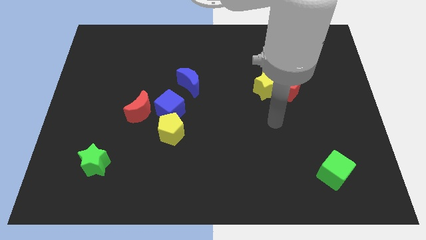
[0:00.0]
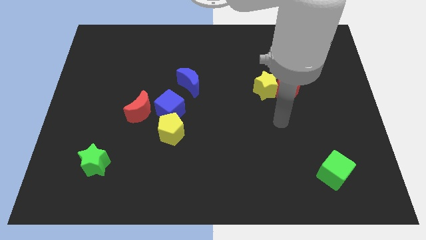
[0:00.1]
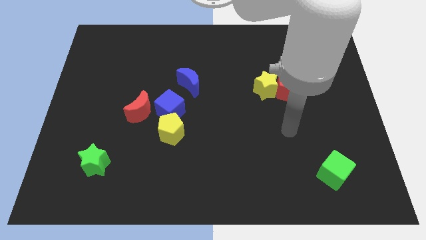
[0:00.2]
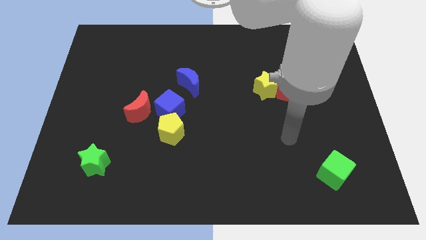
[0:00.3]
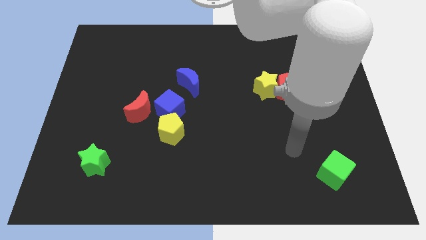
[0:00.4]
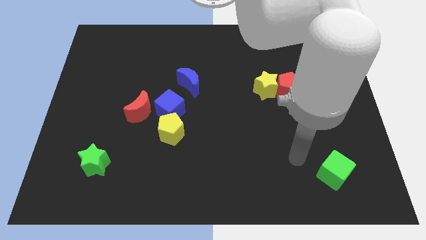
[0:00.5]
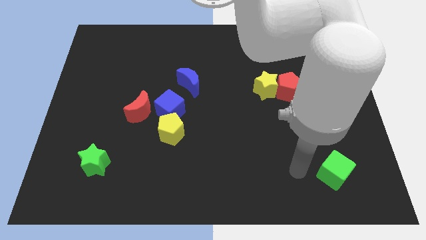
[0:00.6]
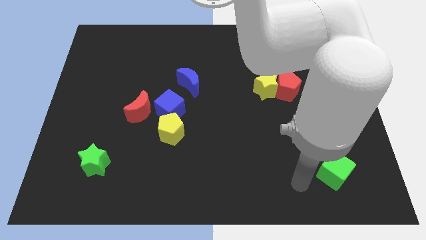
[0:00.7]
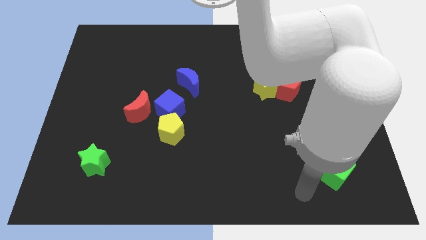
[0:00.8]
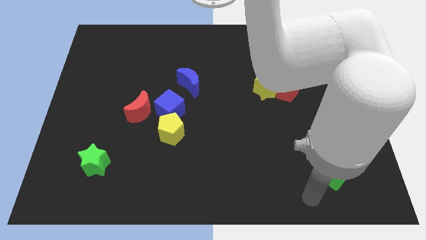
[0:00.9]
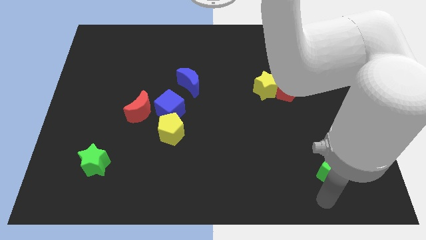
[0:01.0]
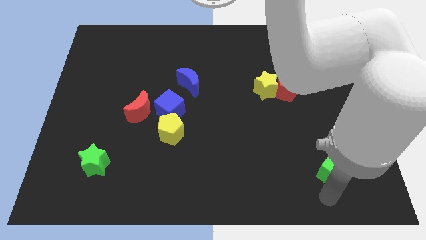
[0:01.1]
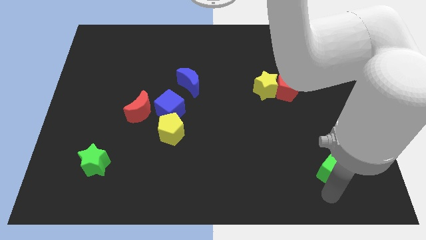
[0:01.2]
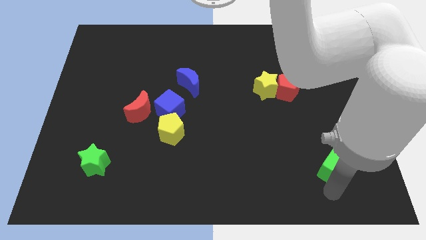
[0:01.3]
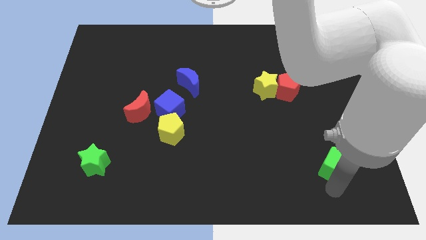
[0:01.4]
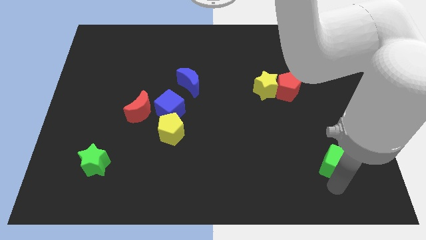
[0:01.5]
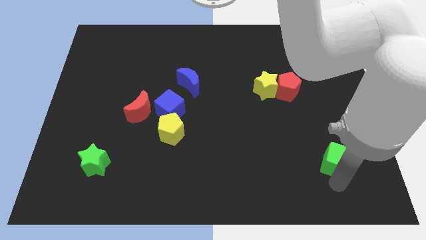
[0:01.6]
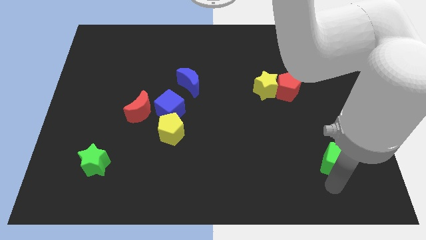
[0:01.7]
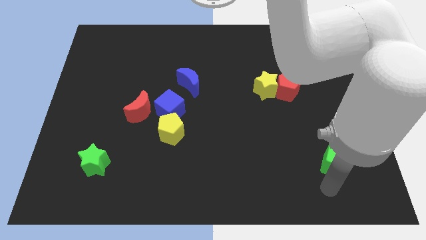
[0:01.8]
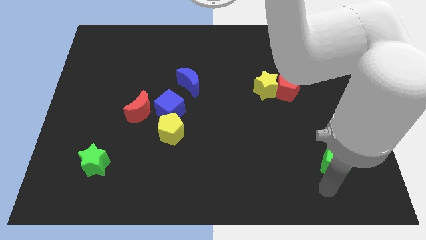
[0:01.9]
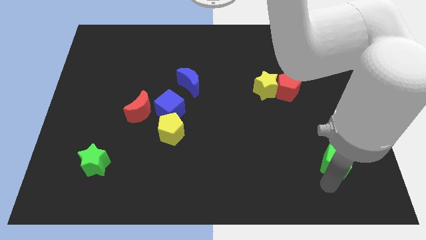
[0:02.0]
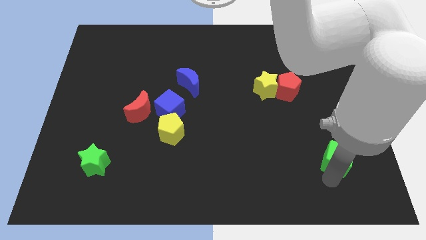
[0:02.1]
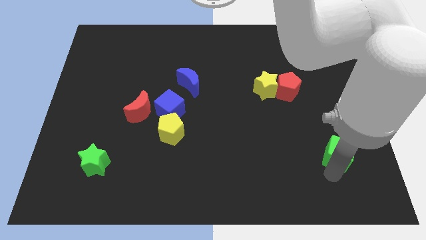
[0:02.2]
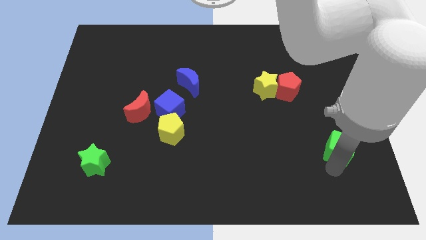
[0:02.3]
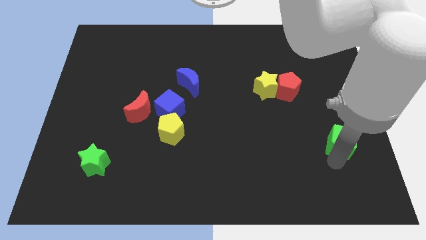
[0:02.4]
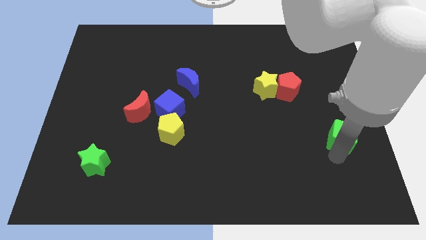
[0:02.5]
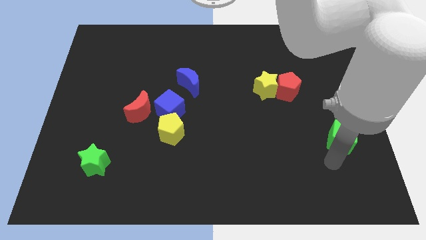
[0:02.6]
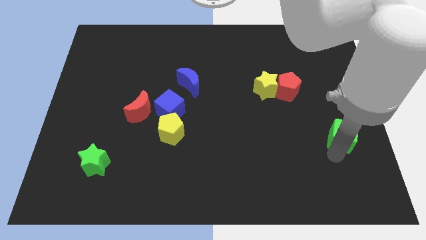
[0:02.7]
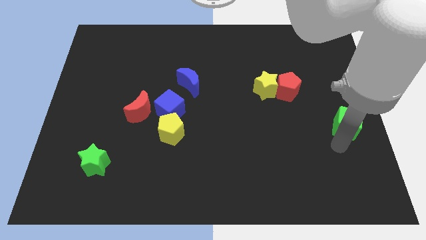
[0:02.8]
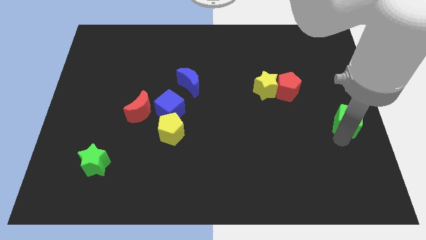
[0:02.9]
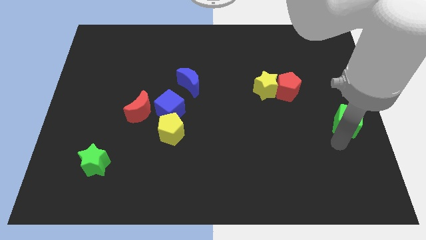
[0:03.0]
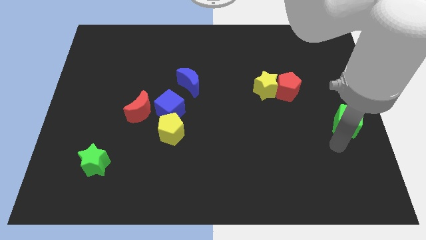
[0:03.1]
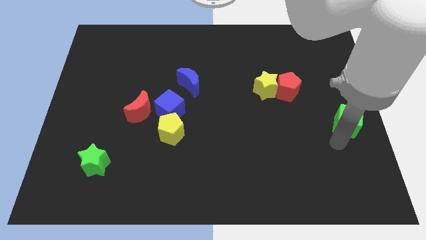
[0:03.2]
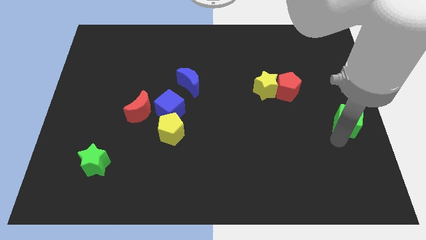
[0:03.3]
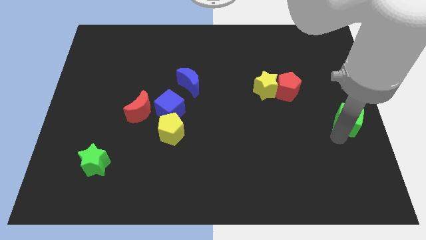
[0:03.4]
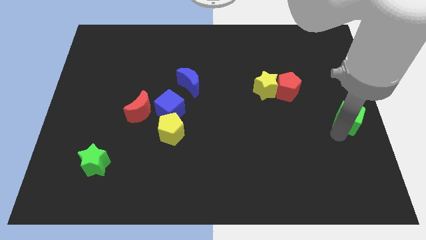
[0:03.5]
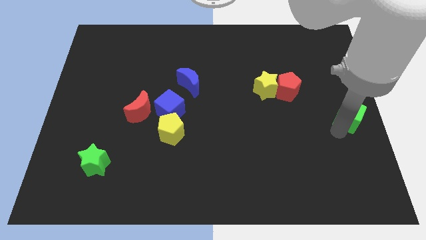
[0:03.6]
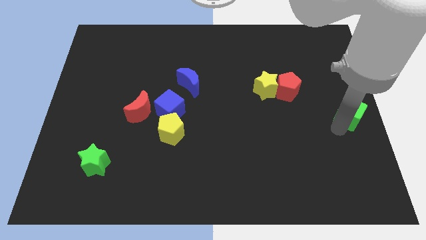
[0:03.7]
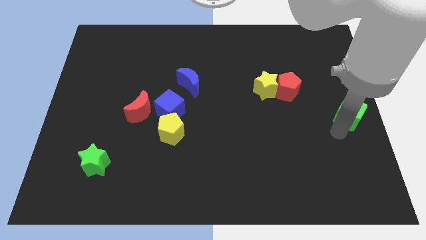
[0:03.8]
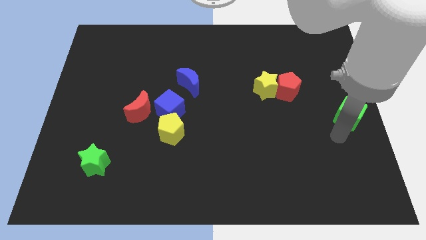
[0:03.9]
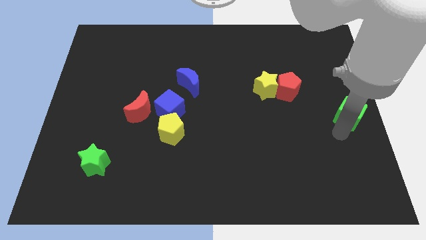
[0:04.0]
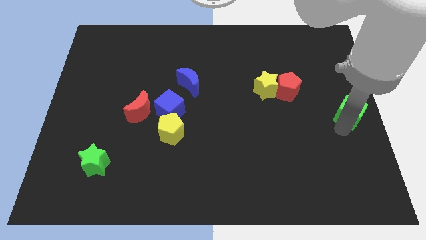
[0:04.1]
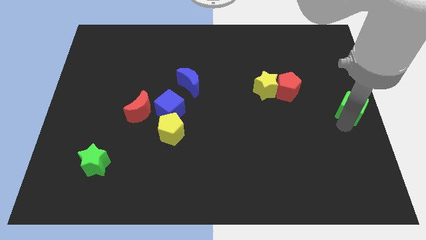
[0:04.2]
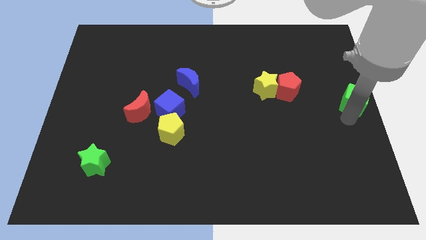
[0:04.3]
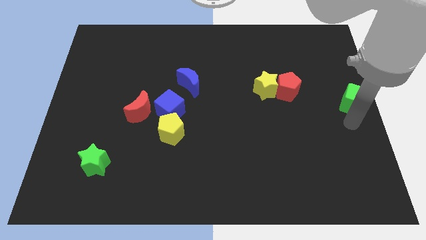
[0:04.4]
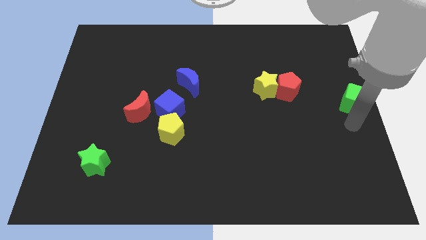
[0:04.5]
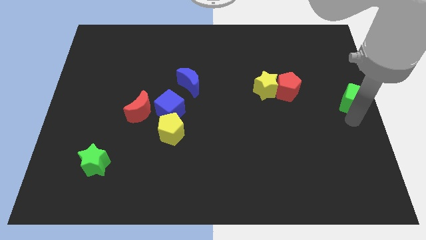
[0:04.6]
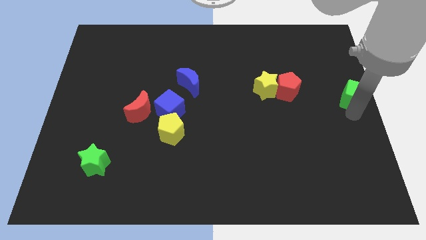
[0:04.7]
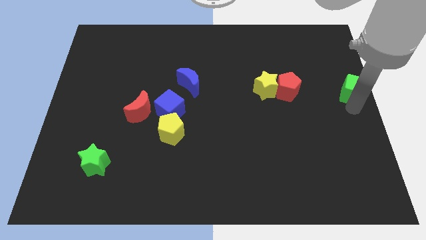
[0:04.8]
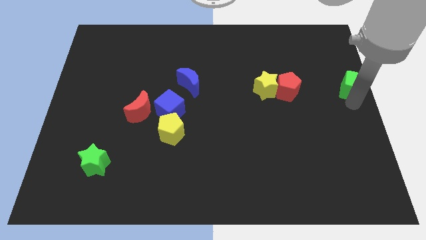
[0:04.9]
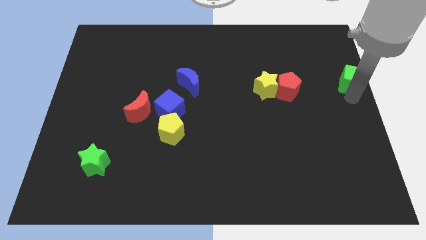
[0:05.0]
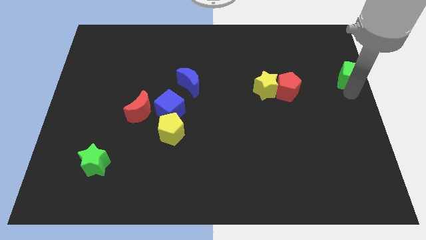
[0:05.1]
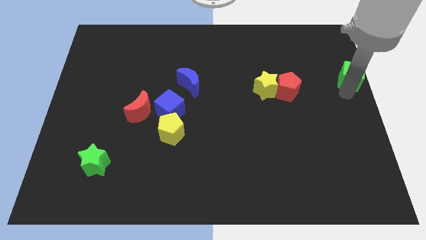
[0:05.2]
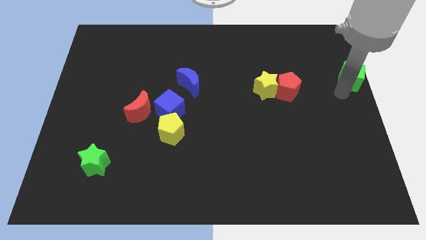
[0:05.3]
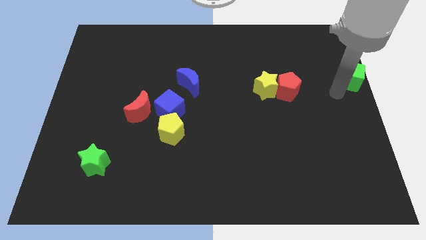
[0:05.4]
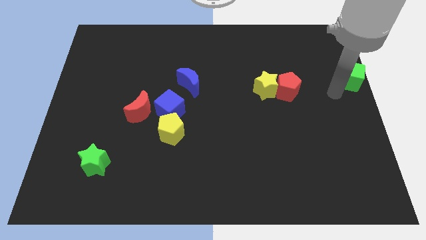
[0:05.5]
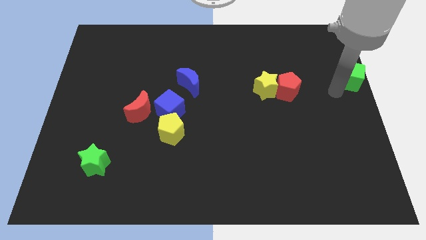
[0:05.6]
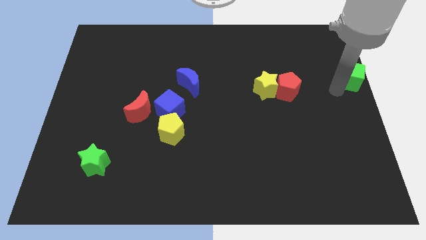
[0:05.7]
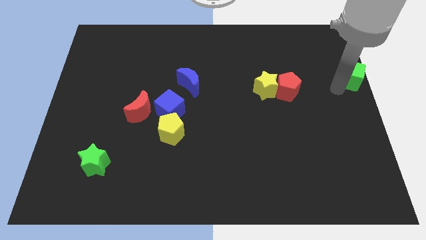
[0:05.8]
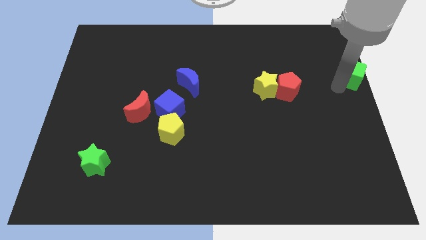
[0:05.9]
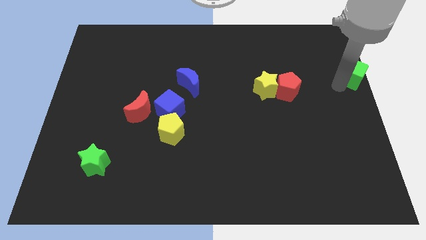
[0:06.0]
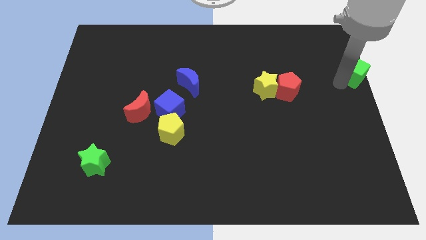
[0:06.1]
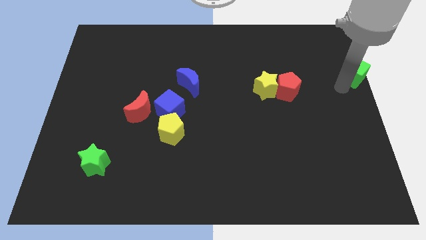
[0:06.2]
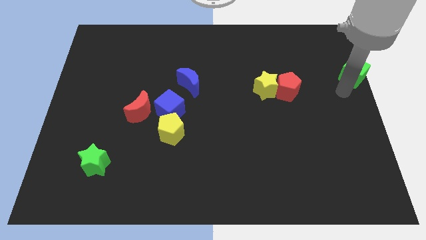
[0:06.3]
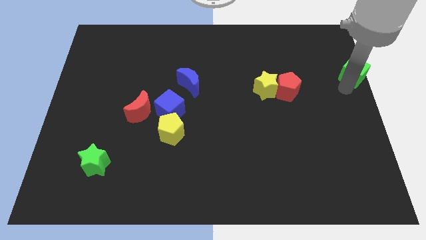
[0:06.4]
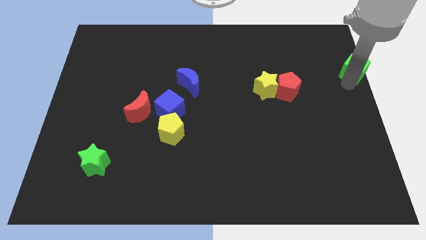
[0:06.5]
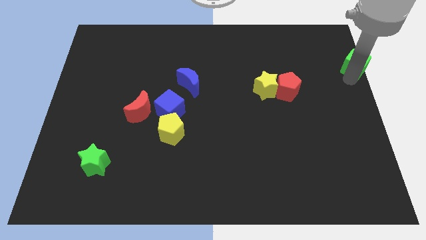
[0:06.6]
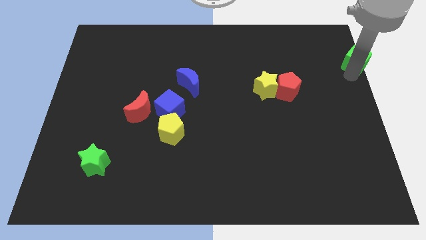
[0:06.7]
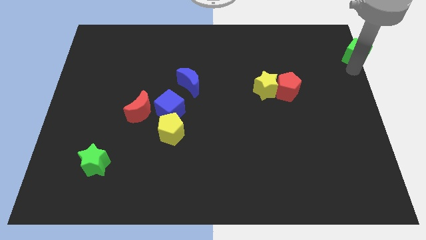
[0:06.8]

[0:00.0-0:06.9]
move the green cube to the upper right corner
